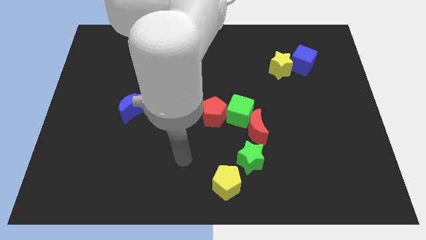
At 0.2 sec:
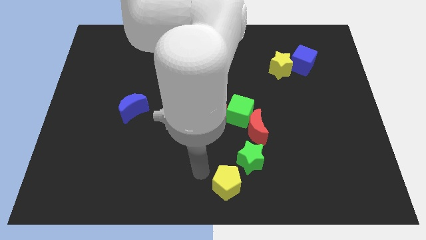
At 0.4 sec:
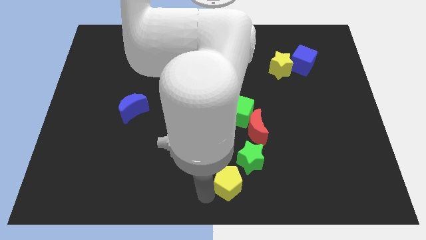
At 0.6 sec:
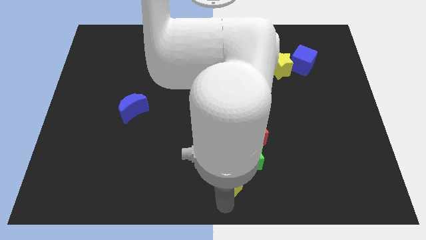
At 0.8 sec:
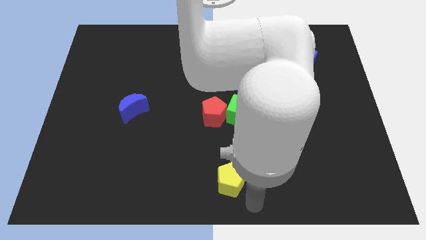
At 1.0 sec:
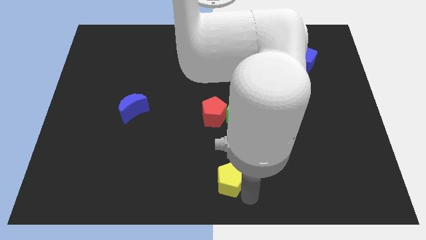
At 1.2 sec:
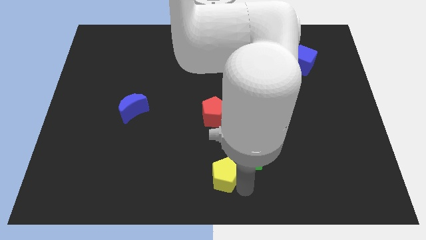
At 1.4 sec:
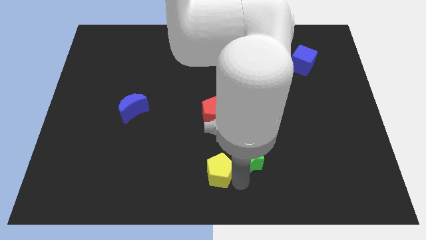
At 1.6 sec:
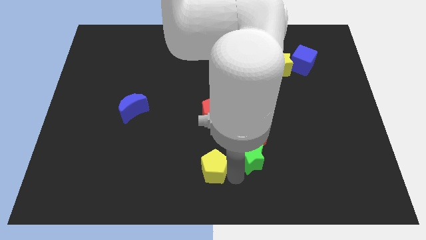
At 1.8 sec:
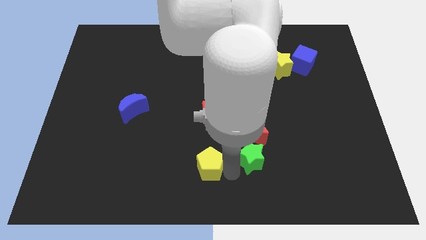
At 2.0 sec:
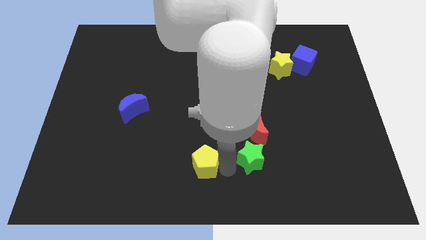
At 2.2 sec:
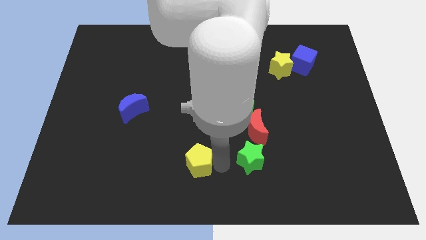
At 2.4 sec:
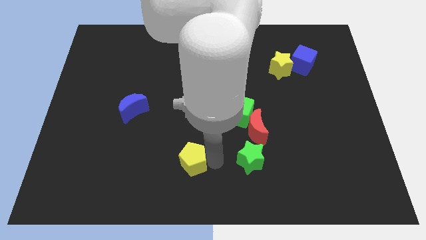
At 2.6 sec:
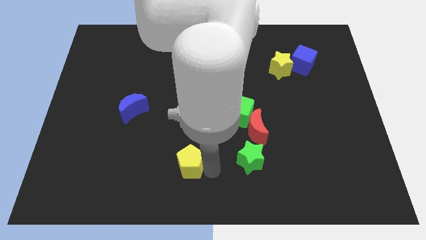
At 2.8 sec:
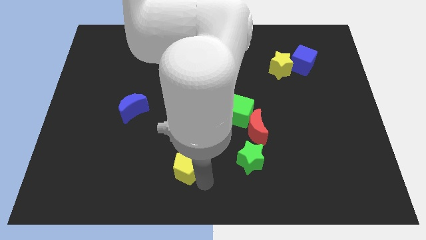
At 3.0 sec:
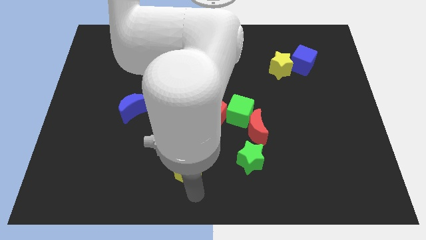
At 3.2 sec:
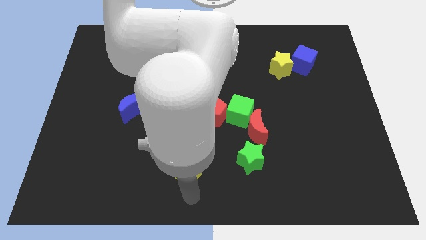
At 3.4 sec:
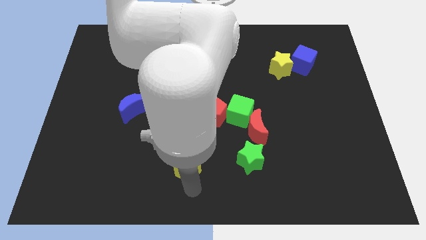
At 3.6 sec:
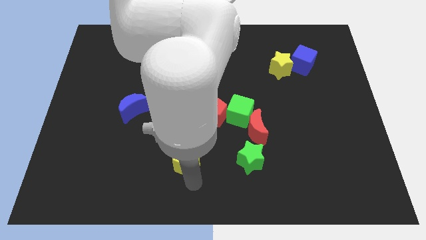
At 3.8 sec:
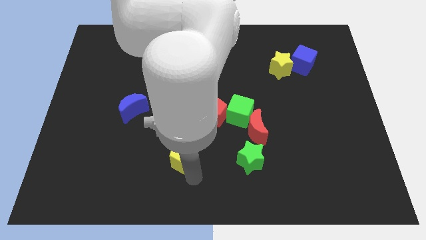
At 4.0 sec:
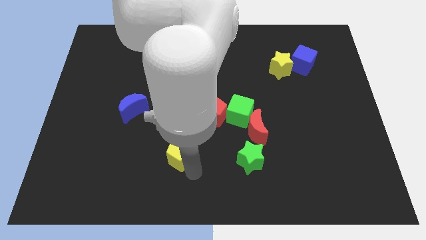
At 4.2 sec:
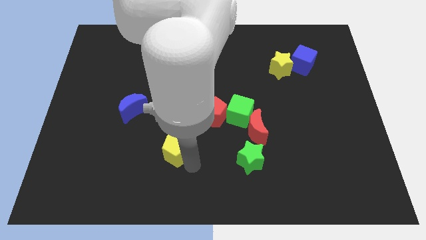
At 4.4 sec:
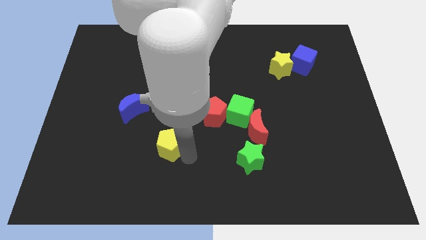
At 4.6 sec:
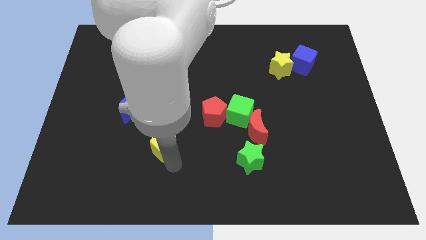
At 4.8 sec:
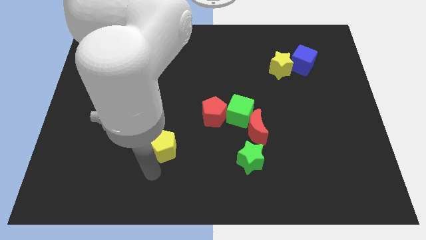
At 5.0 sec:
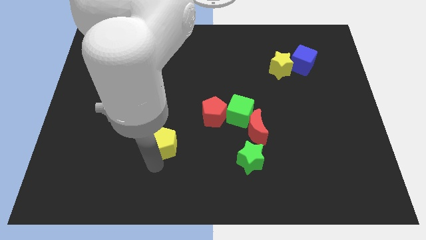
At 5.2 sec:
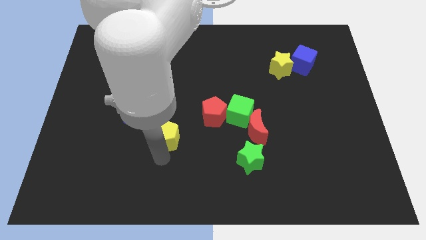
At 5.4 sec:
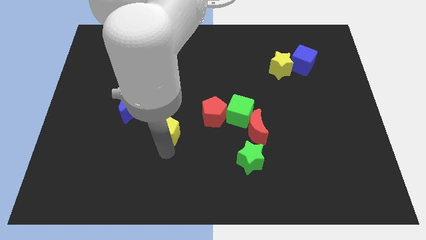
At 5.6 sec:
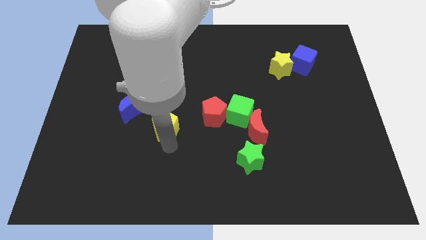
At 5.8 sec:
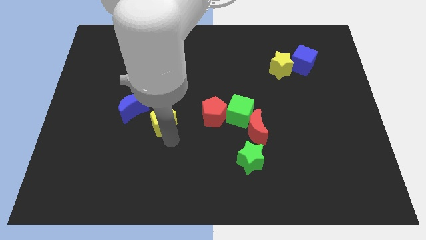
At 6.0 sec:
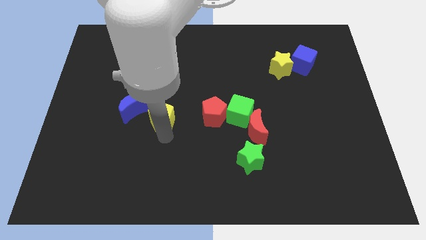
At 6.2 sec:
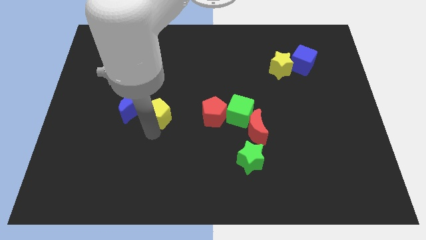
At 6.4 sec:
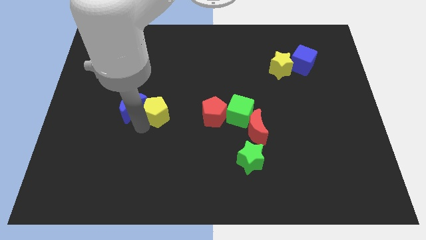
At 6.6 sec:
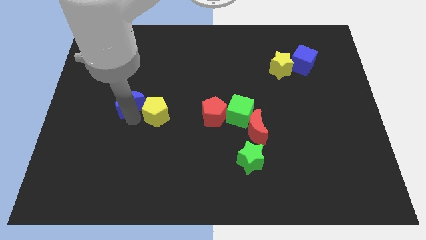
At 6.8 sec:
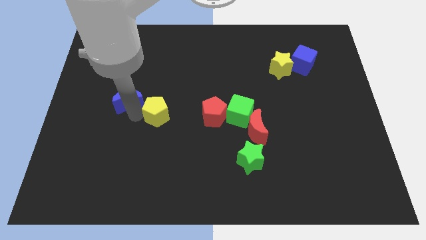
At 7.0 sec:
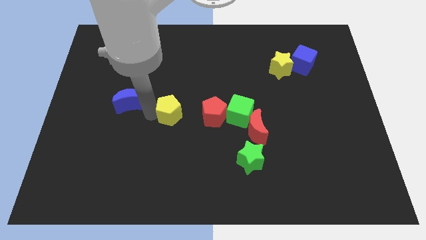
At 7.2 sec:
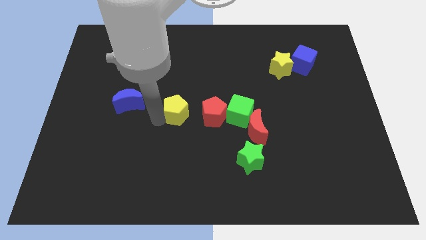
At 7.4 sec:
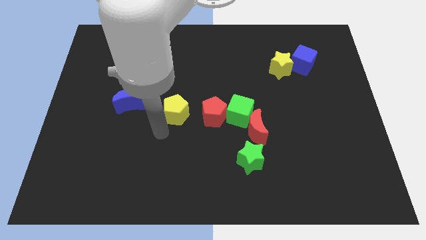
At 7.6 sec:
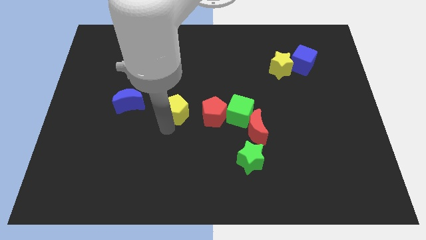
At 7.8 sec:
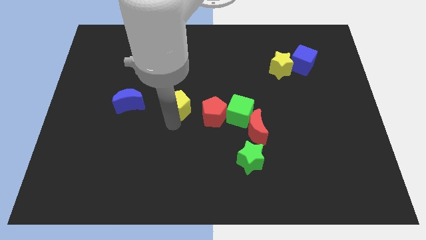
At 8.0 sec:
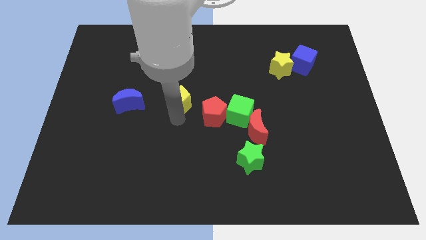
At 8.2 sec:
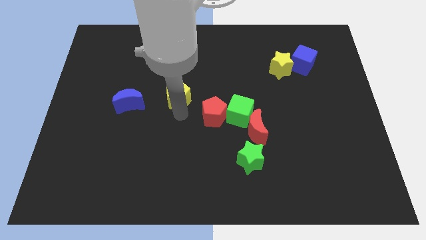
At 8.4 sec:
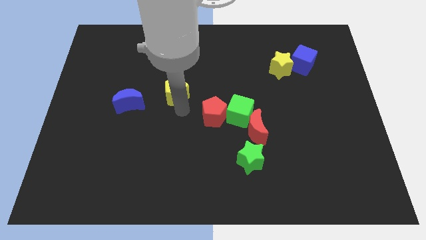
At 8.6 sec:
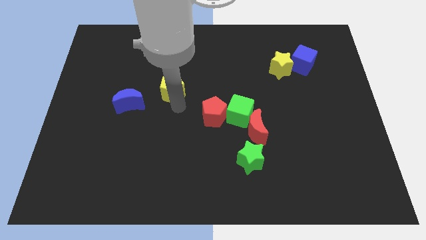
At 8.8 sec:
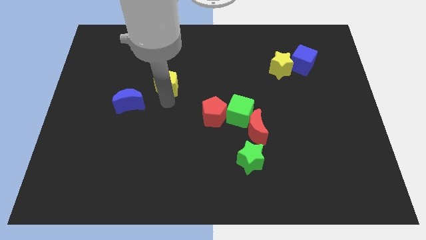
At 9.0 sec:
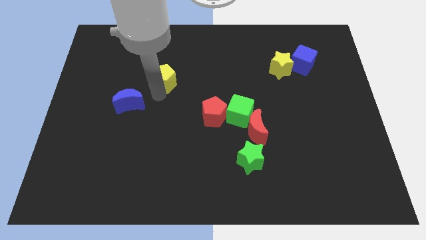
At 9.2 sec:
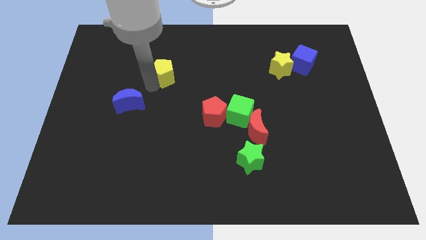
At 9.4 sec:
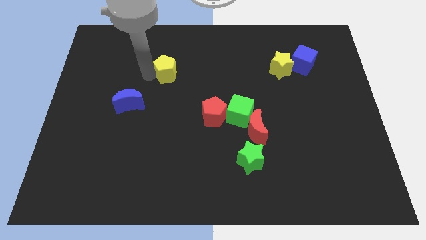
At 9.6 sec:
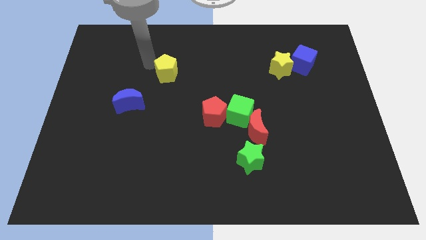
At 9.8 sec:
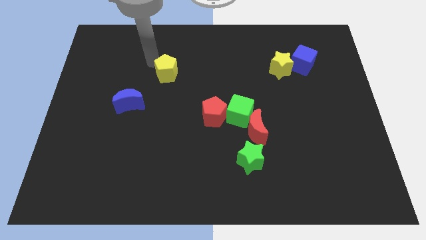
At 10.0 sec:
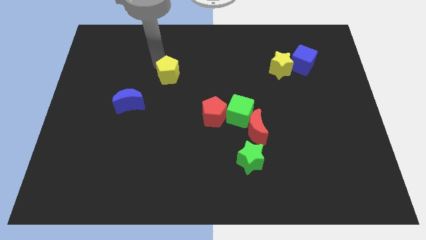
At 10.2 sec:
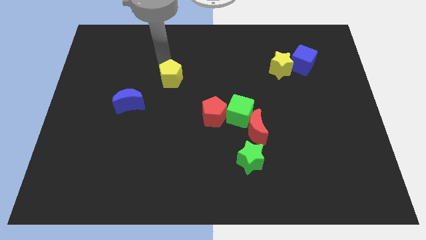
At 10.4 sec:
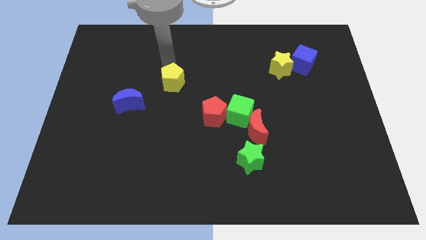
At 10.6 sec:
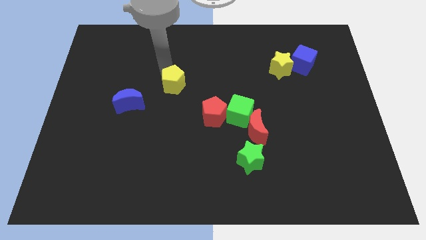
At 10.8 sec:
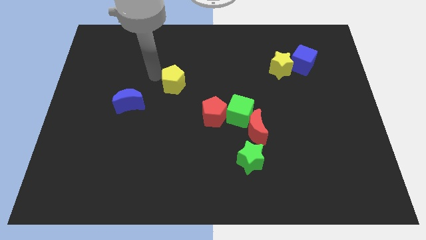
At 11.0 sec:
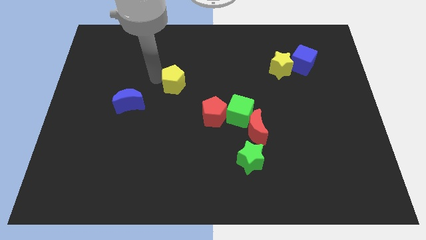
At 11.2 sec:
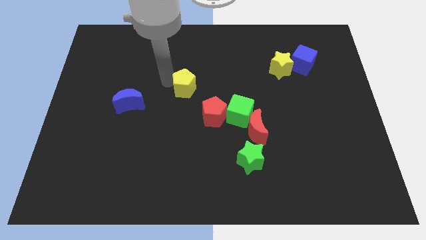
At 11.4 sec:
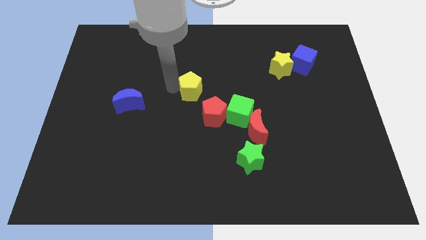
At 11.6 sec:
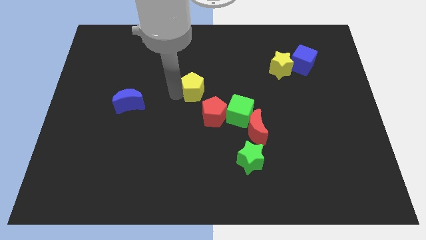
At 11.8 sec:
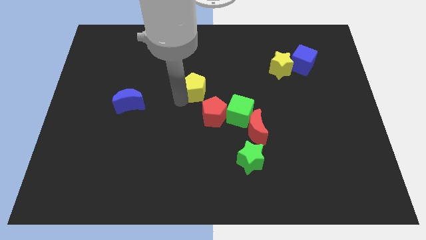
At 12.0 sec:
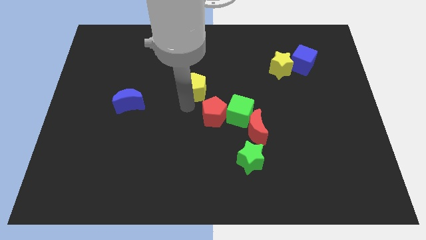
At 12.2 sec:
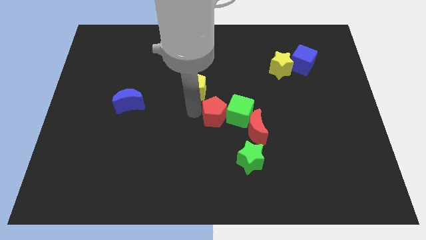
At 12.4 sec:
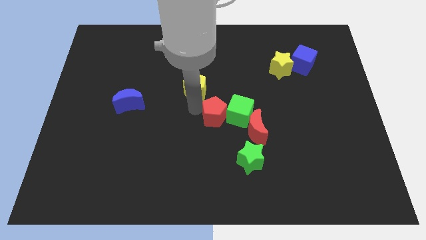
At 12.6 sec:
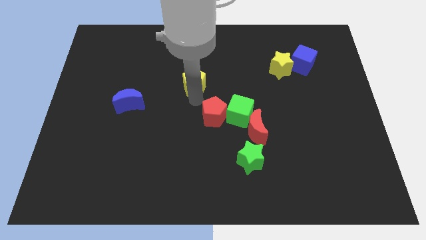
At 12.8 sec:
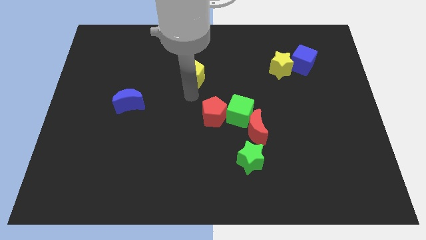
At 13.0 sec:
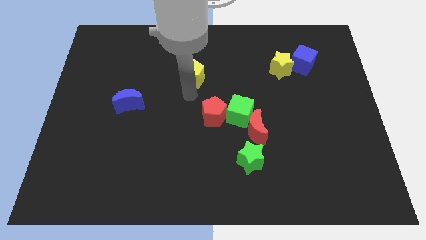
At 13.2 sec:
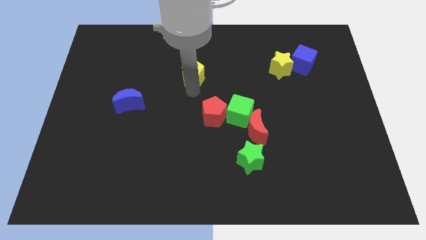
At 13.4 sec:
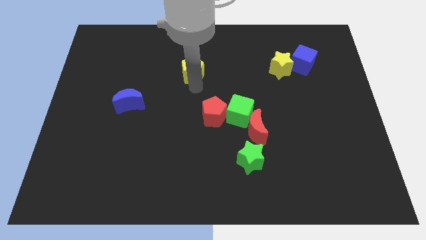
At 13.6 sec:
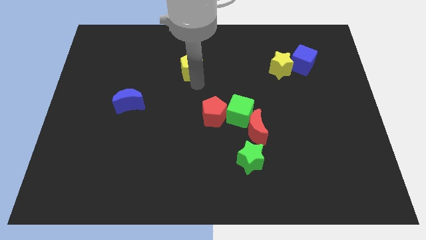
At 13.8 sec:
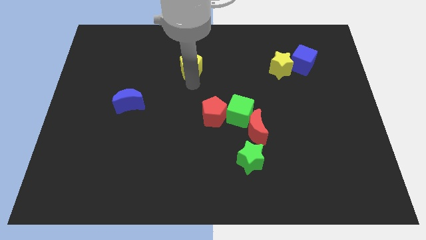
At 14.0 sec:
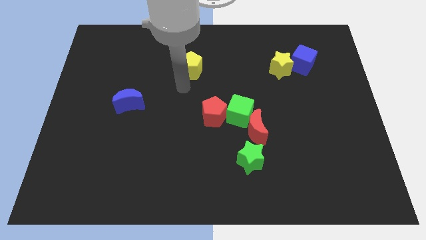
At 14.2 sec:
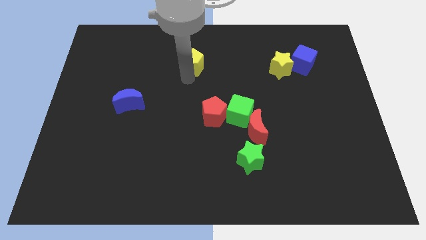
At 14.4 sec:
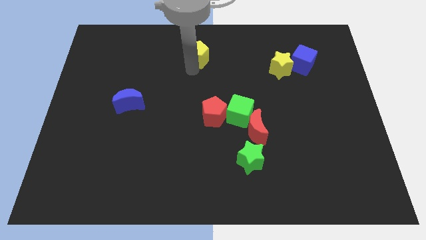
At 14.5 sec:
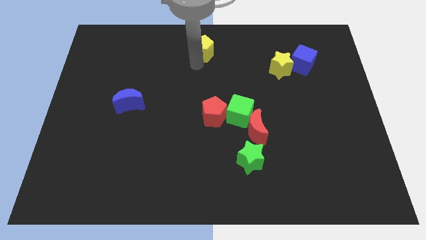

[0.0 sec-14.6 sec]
slide the yellow pentagon to the top
